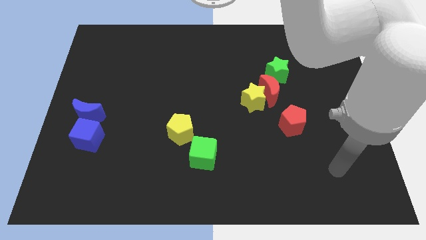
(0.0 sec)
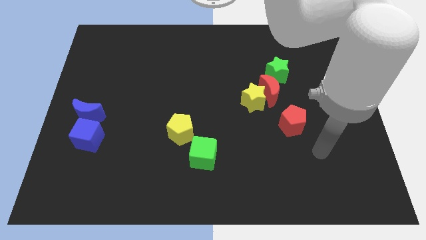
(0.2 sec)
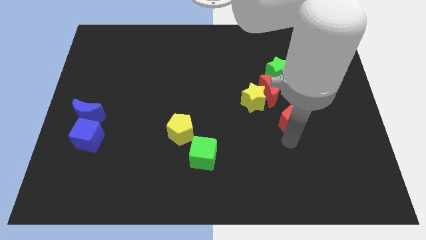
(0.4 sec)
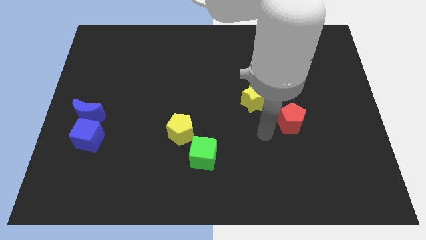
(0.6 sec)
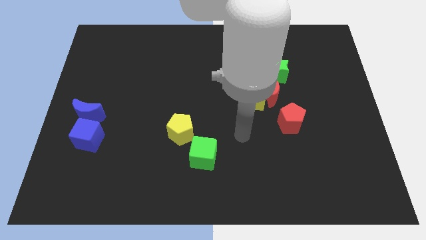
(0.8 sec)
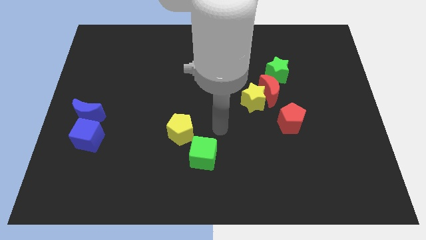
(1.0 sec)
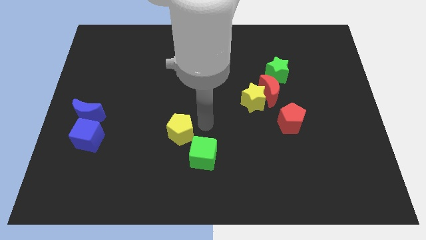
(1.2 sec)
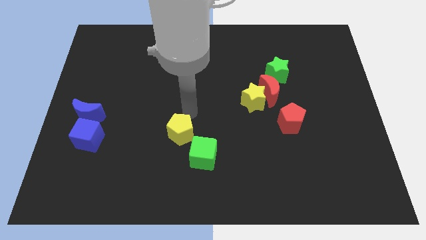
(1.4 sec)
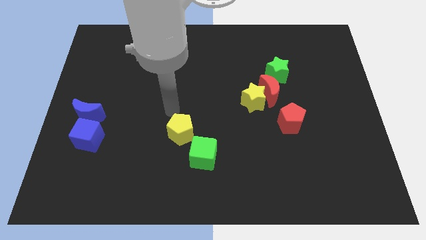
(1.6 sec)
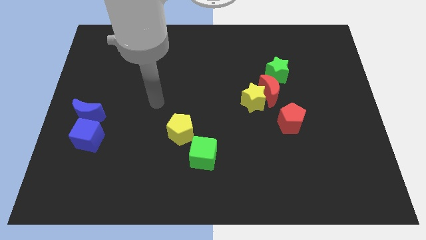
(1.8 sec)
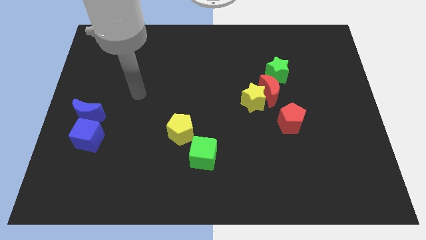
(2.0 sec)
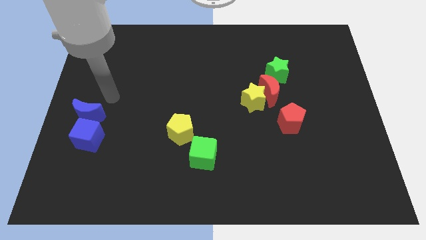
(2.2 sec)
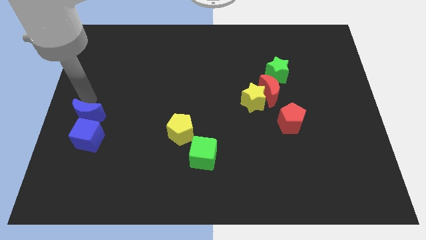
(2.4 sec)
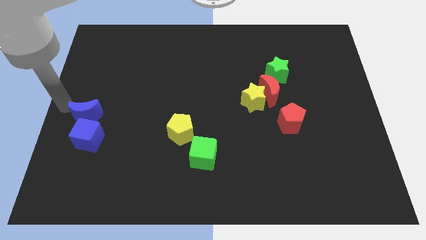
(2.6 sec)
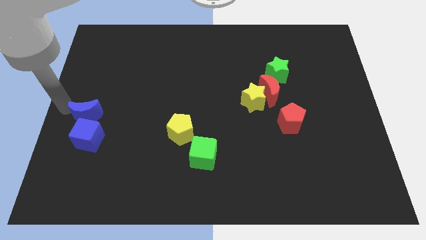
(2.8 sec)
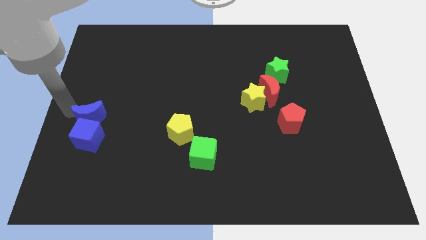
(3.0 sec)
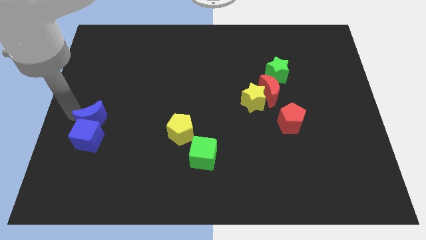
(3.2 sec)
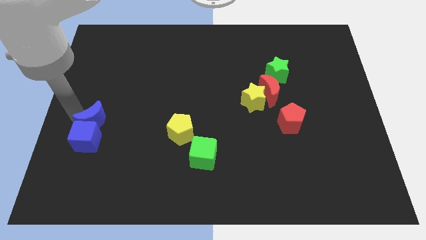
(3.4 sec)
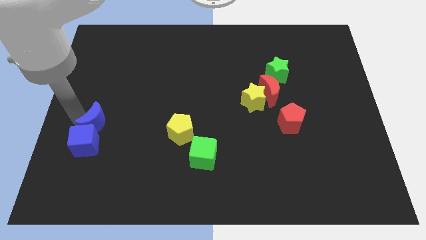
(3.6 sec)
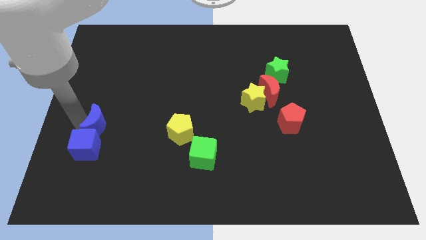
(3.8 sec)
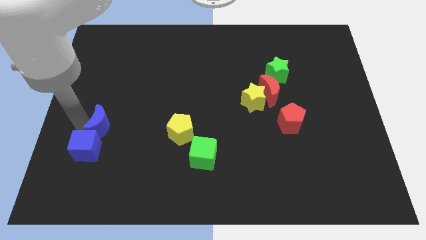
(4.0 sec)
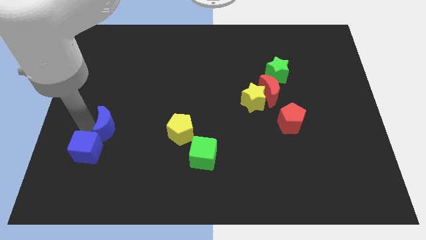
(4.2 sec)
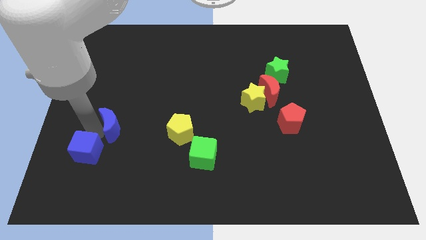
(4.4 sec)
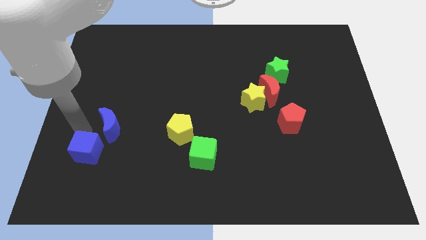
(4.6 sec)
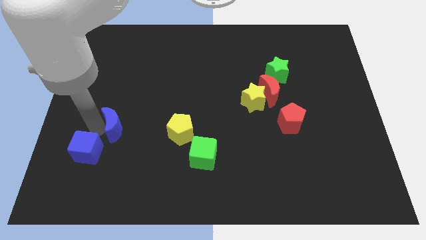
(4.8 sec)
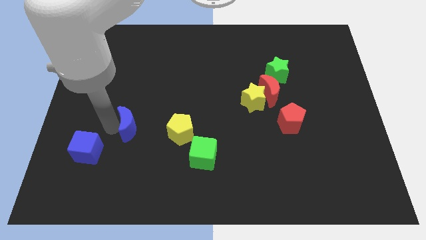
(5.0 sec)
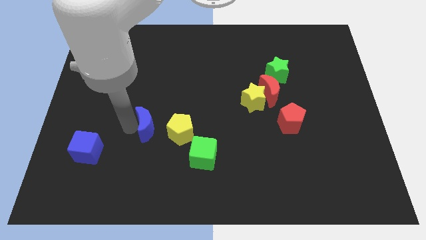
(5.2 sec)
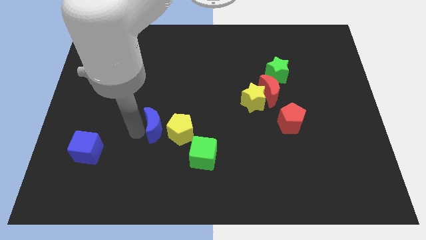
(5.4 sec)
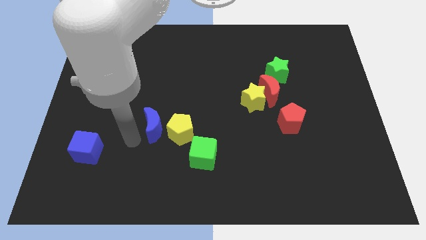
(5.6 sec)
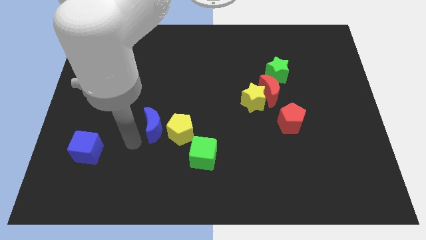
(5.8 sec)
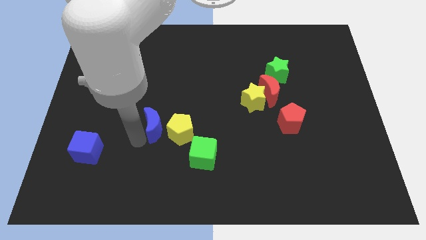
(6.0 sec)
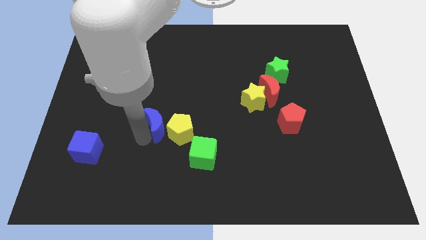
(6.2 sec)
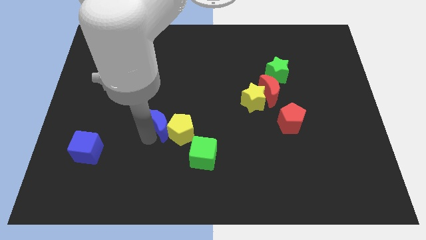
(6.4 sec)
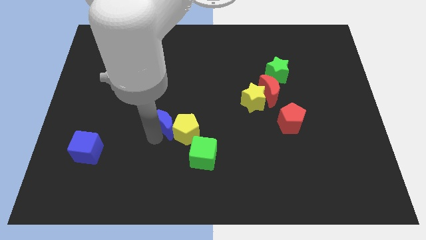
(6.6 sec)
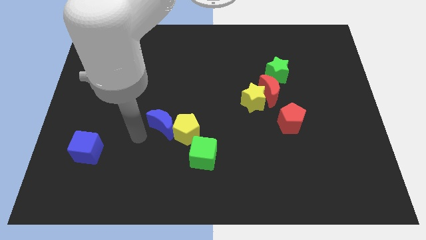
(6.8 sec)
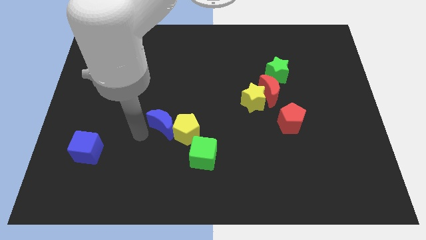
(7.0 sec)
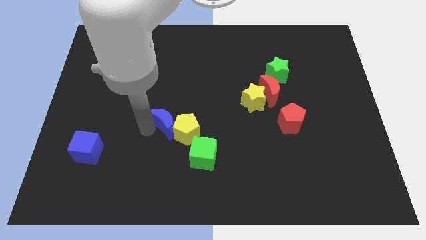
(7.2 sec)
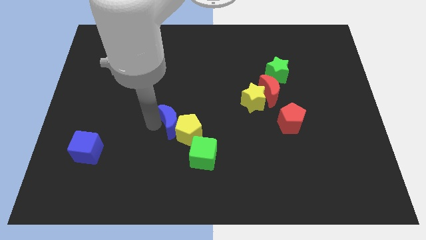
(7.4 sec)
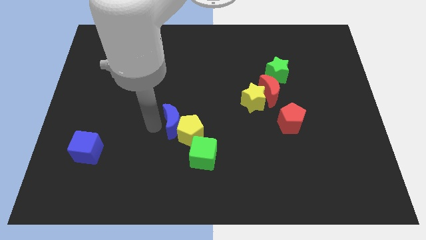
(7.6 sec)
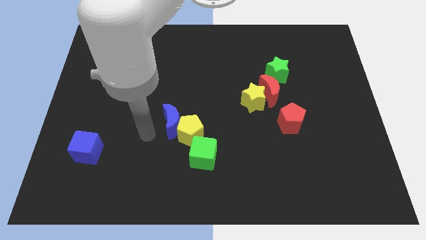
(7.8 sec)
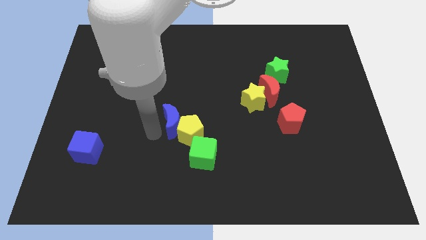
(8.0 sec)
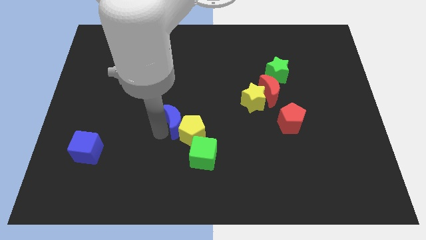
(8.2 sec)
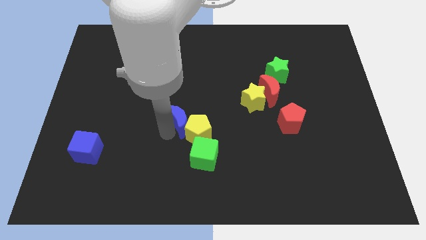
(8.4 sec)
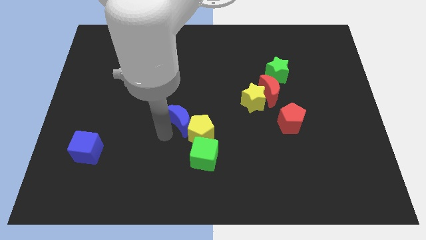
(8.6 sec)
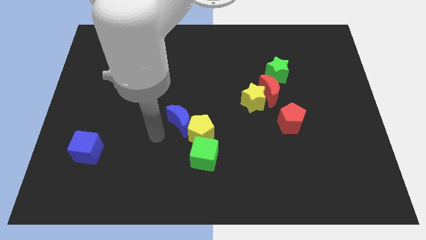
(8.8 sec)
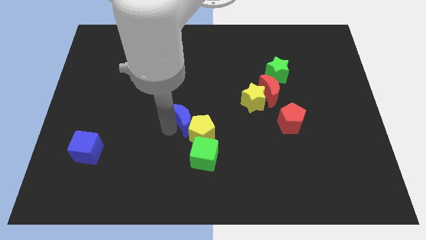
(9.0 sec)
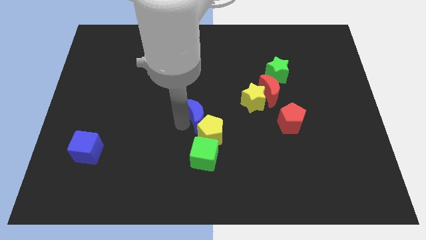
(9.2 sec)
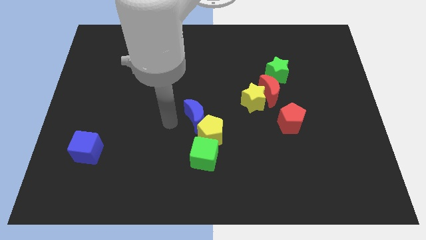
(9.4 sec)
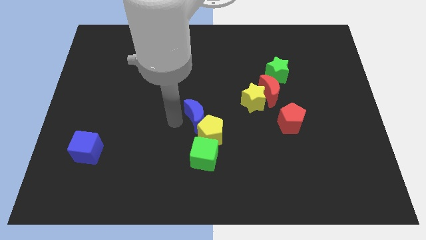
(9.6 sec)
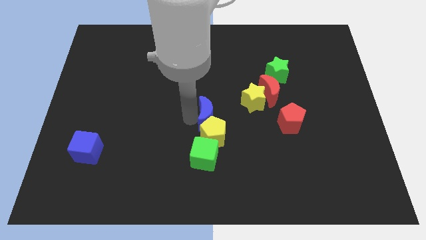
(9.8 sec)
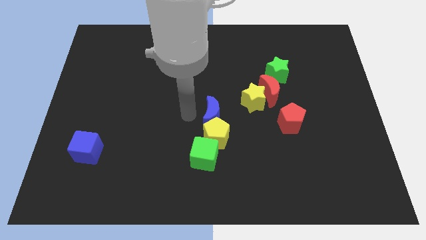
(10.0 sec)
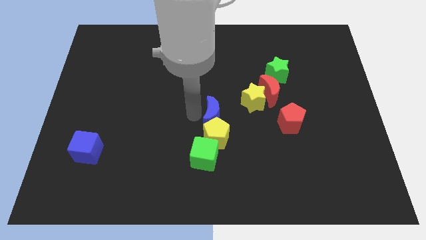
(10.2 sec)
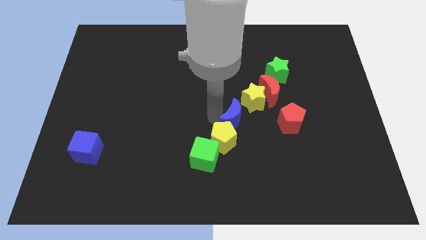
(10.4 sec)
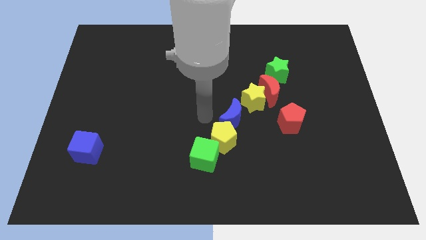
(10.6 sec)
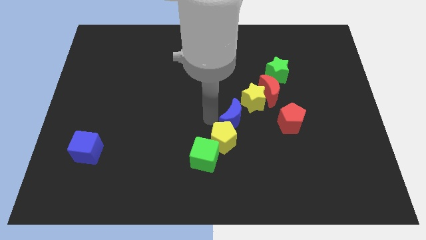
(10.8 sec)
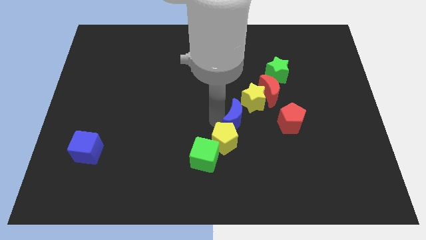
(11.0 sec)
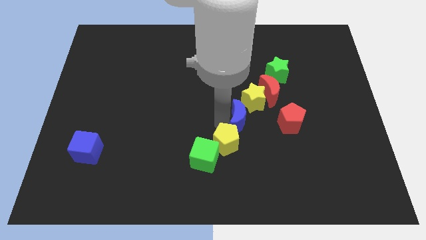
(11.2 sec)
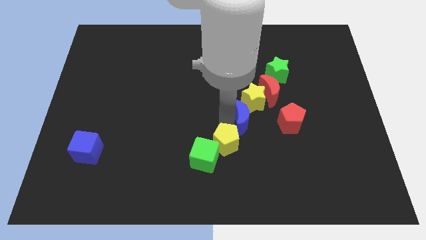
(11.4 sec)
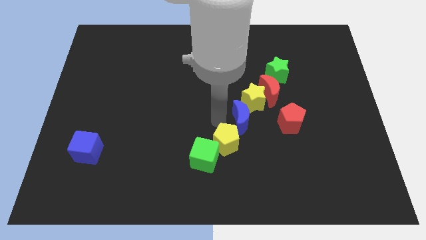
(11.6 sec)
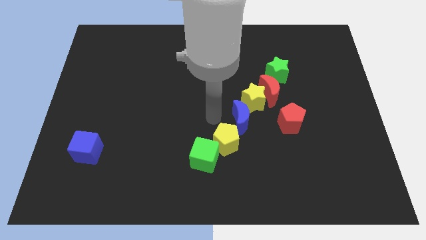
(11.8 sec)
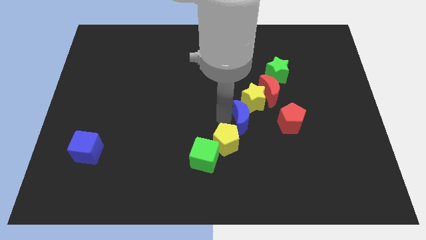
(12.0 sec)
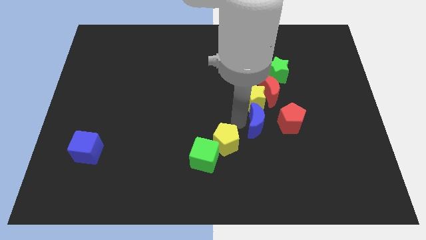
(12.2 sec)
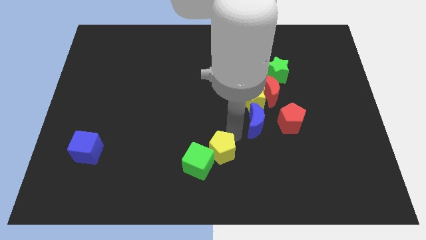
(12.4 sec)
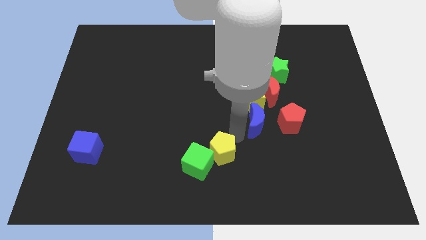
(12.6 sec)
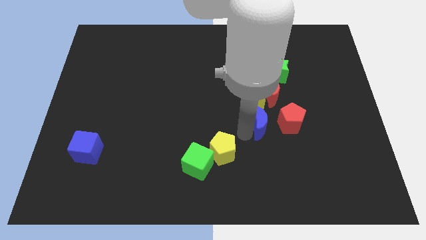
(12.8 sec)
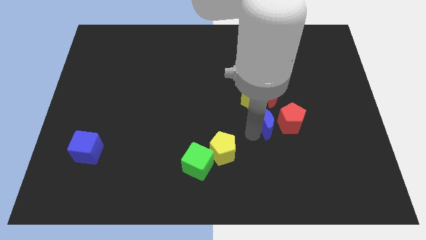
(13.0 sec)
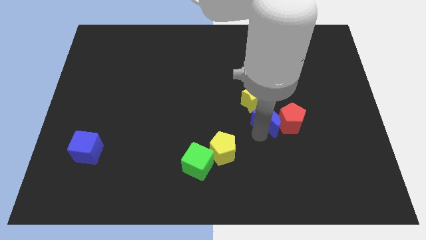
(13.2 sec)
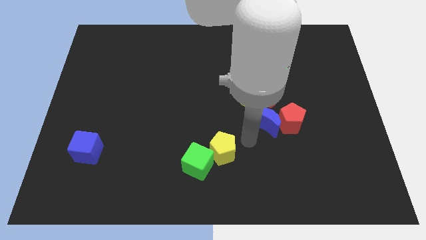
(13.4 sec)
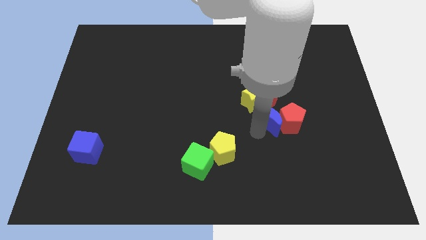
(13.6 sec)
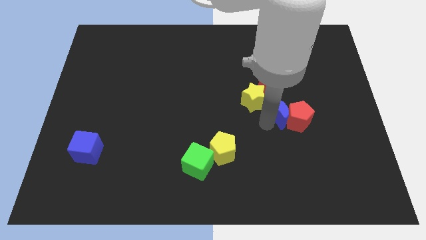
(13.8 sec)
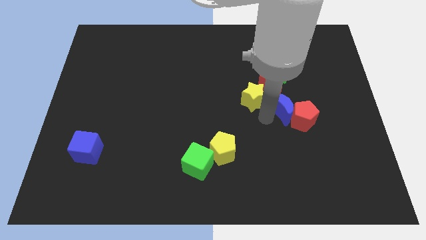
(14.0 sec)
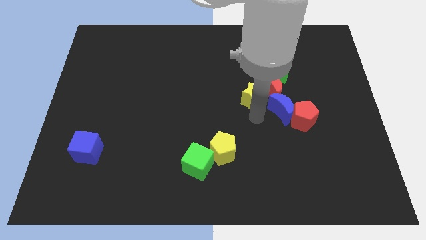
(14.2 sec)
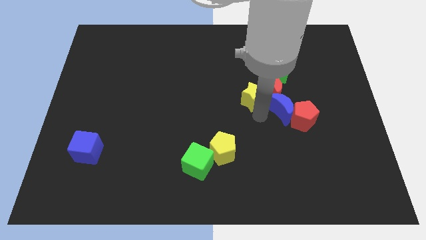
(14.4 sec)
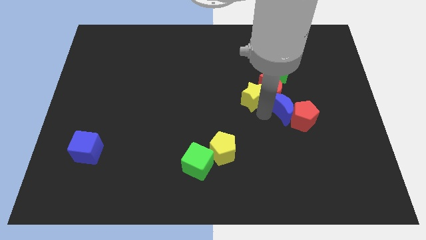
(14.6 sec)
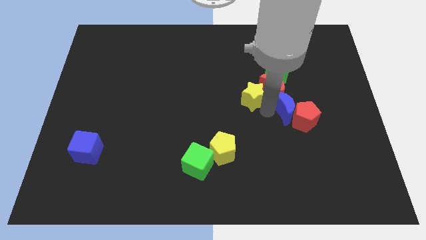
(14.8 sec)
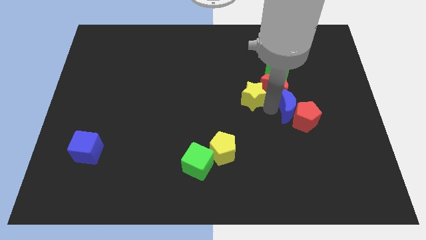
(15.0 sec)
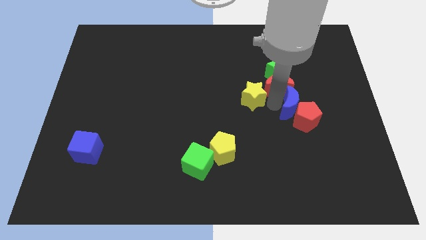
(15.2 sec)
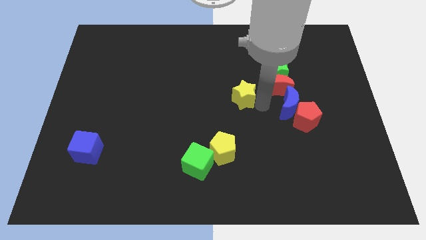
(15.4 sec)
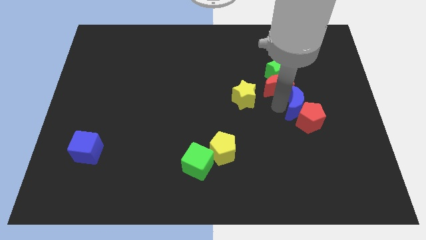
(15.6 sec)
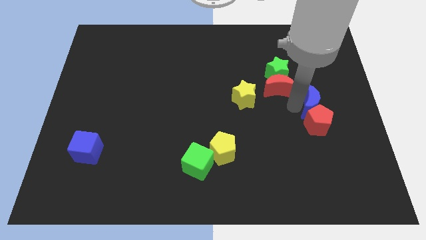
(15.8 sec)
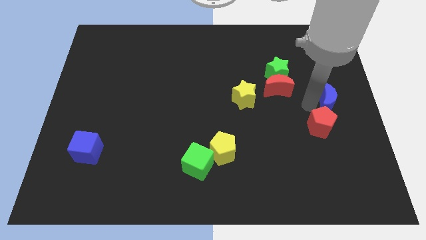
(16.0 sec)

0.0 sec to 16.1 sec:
put the blue moon to the right side
